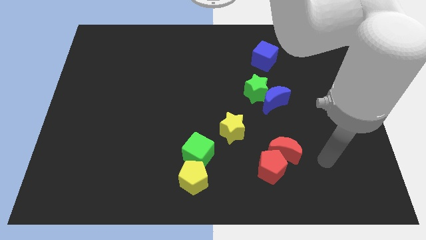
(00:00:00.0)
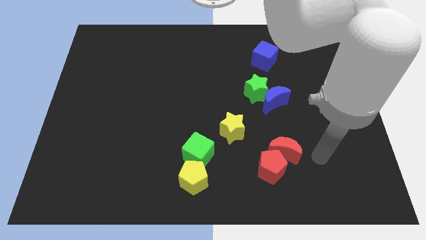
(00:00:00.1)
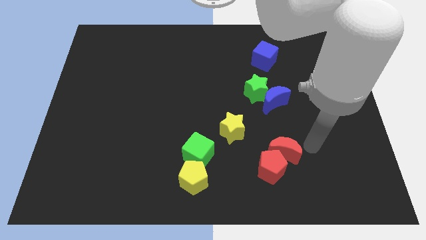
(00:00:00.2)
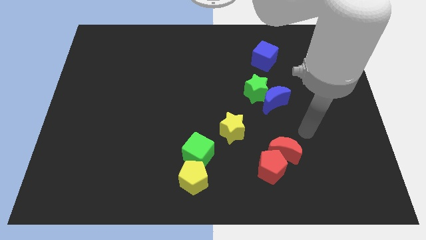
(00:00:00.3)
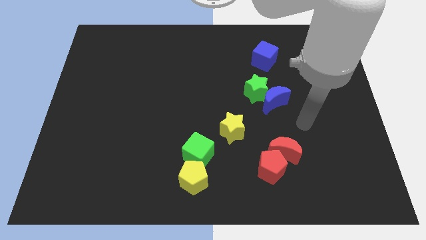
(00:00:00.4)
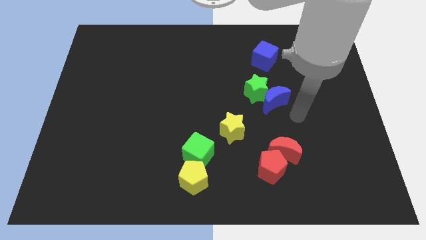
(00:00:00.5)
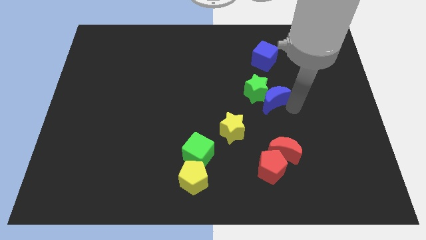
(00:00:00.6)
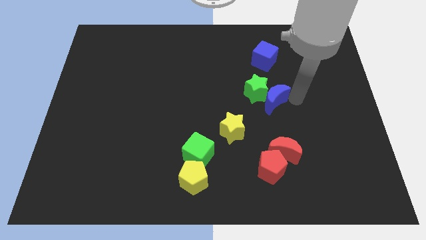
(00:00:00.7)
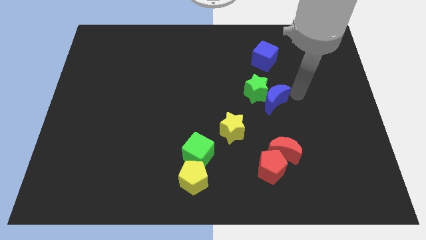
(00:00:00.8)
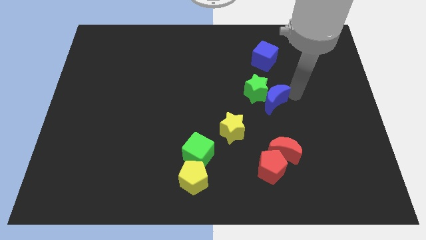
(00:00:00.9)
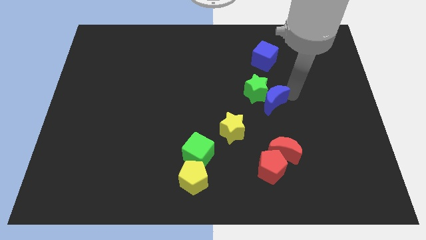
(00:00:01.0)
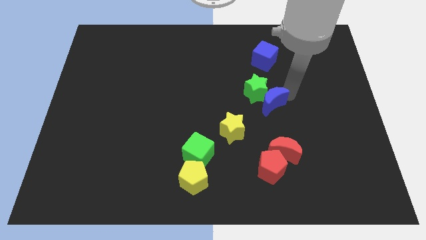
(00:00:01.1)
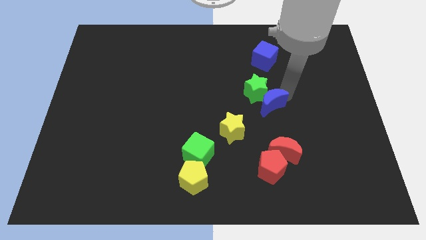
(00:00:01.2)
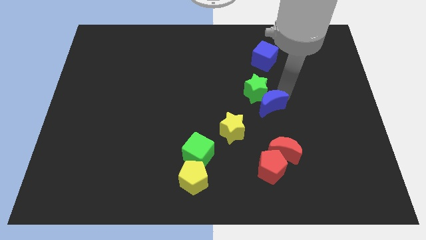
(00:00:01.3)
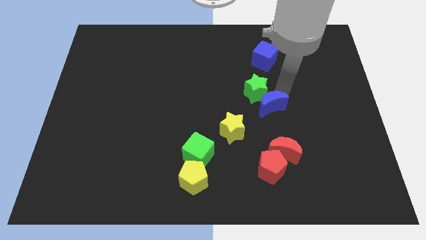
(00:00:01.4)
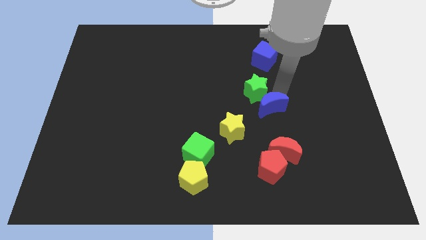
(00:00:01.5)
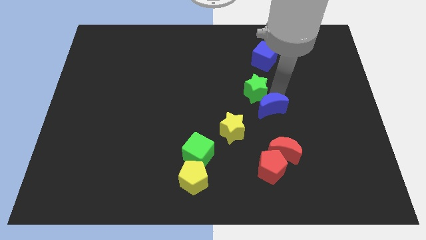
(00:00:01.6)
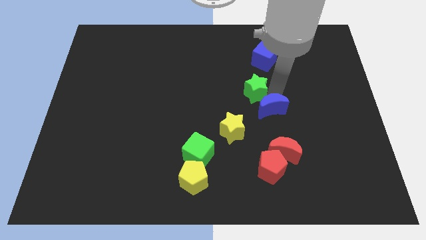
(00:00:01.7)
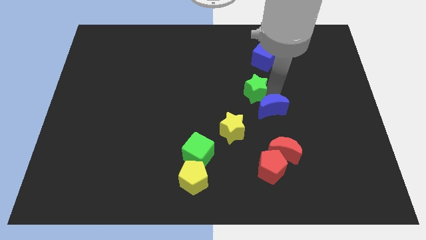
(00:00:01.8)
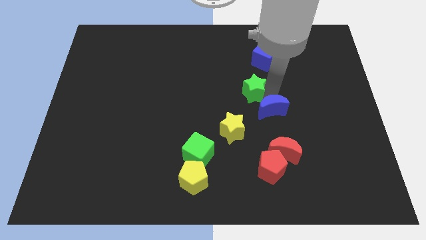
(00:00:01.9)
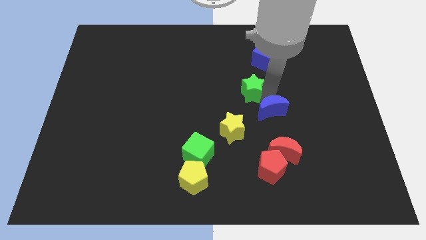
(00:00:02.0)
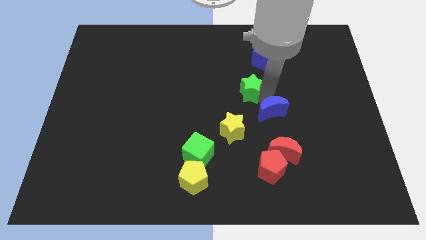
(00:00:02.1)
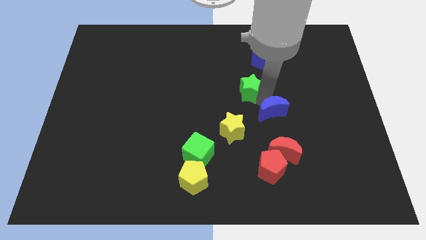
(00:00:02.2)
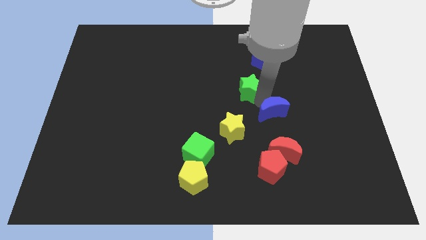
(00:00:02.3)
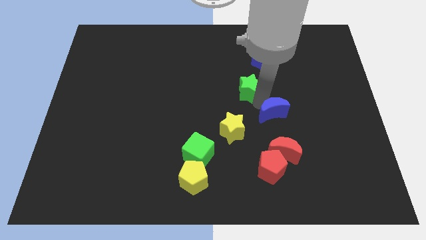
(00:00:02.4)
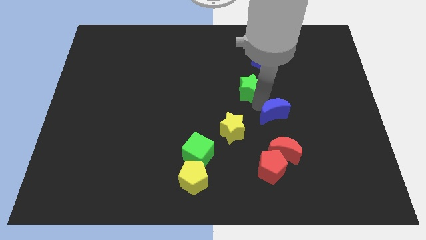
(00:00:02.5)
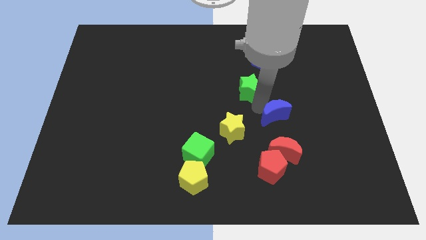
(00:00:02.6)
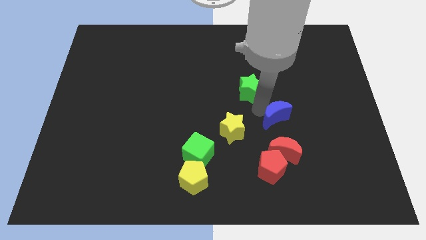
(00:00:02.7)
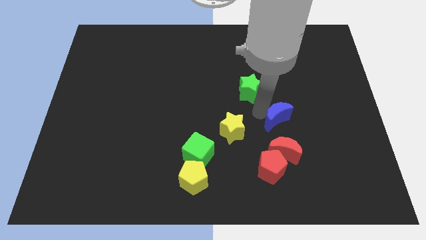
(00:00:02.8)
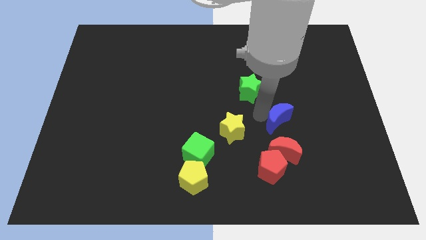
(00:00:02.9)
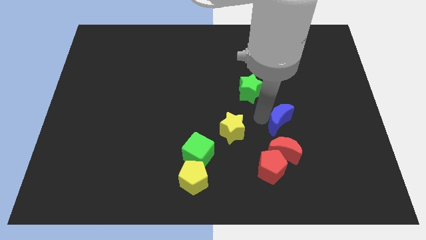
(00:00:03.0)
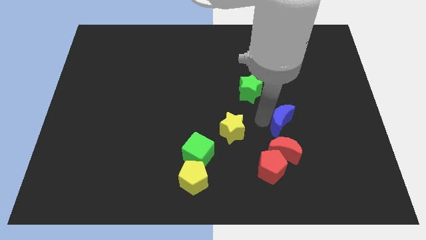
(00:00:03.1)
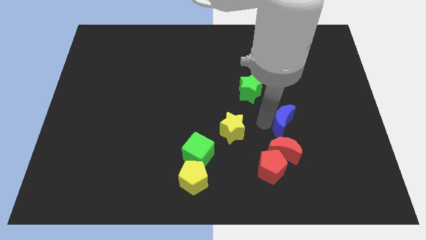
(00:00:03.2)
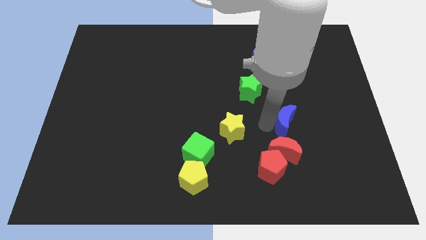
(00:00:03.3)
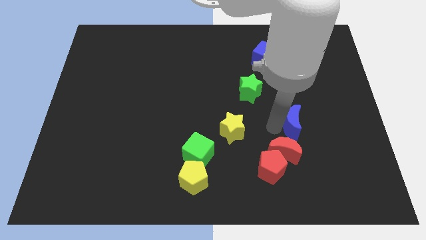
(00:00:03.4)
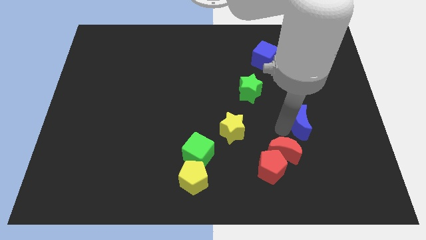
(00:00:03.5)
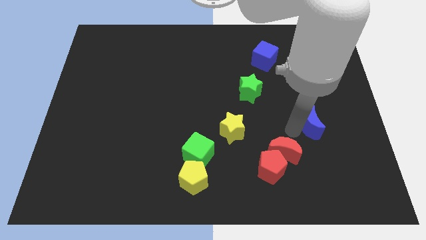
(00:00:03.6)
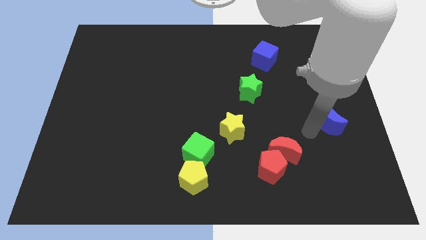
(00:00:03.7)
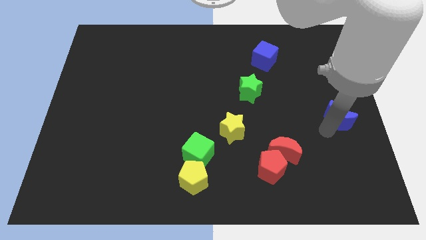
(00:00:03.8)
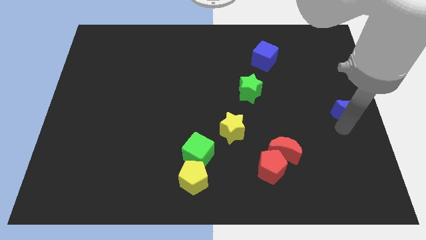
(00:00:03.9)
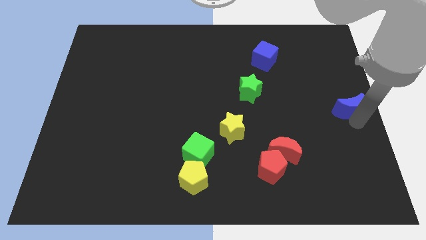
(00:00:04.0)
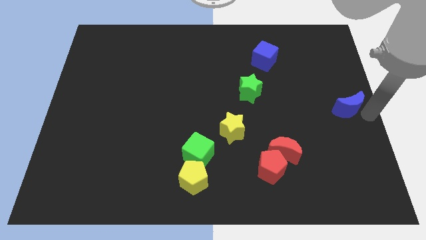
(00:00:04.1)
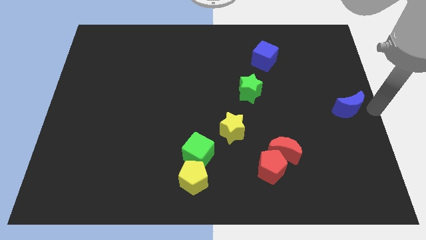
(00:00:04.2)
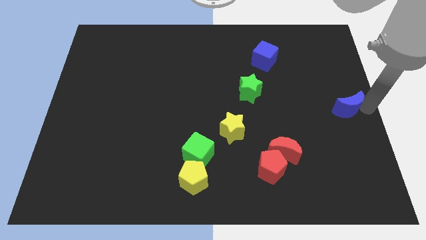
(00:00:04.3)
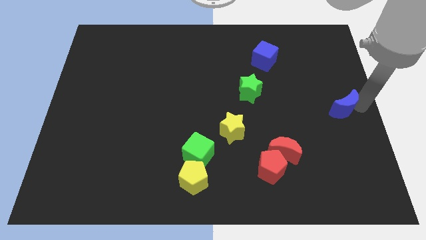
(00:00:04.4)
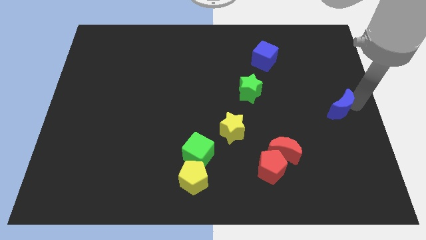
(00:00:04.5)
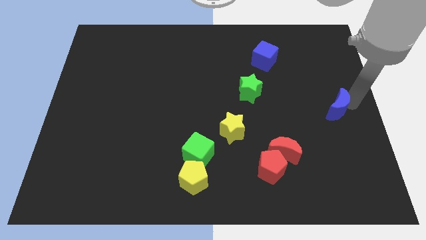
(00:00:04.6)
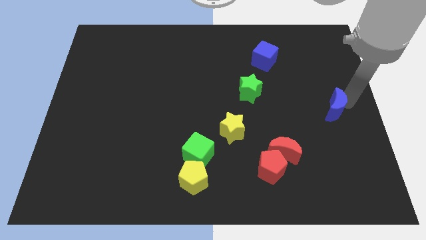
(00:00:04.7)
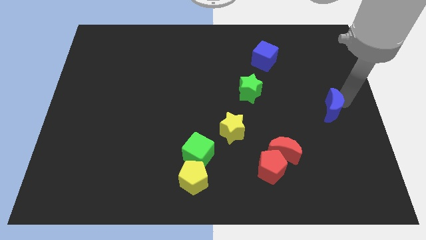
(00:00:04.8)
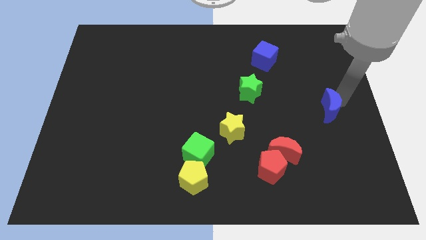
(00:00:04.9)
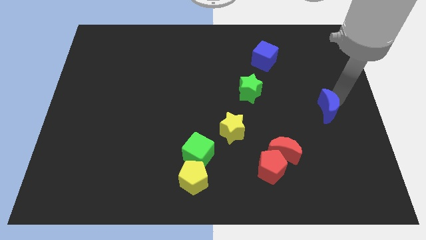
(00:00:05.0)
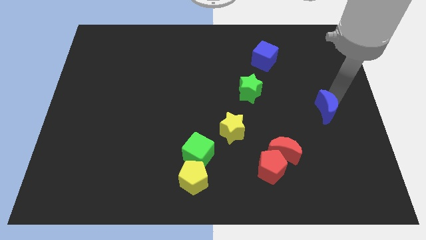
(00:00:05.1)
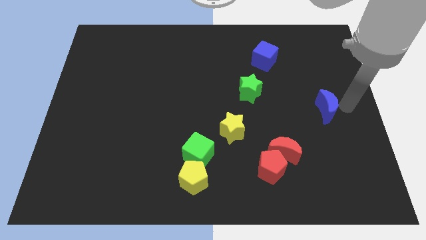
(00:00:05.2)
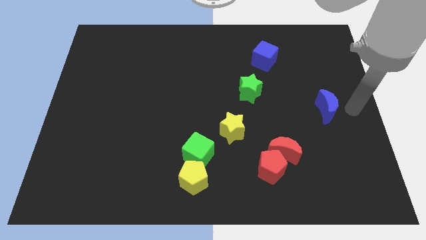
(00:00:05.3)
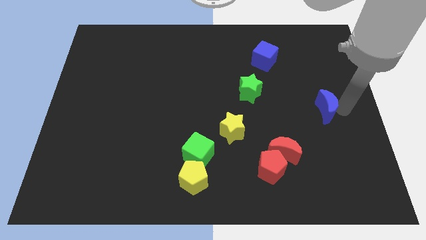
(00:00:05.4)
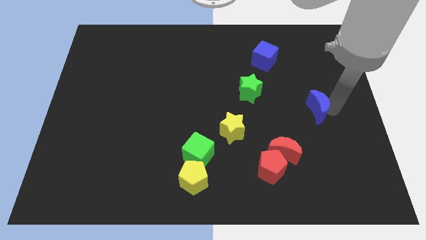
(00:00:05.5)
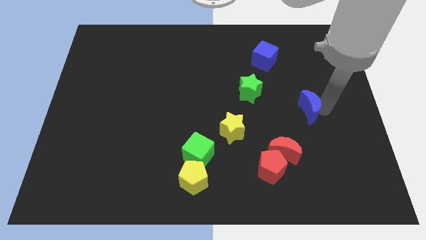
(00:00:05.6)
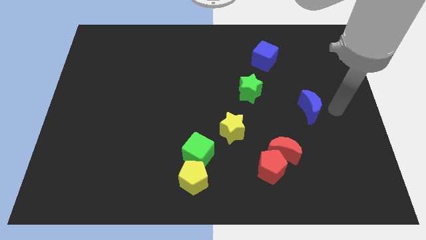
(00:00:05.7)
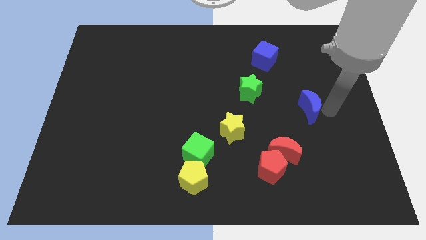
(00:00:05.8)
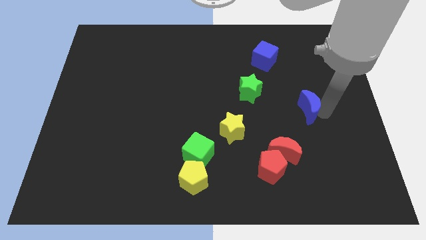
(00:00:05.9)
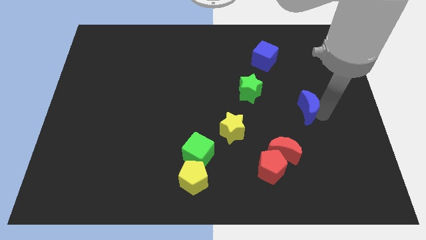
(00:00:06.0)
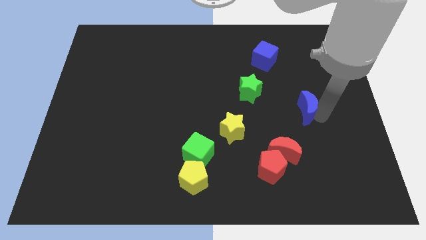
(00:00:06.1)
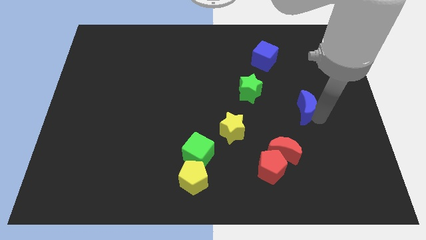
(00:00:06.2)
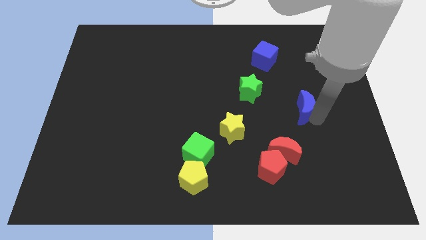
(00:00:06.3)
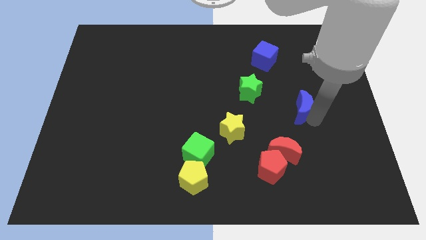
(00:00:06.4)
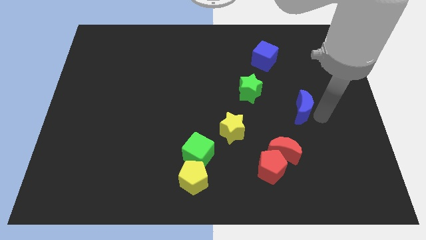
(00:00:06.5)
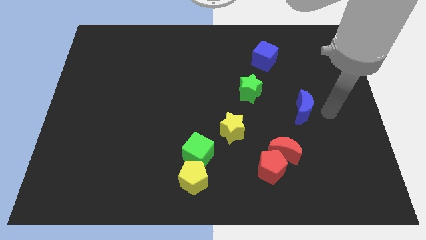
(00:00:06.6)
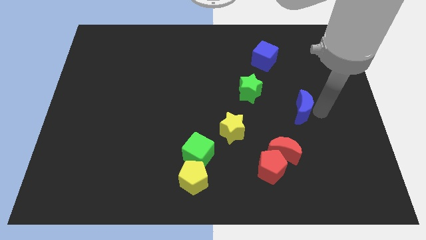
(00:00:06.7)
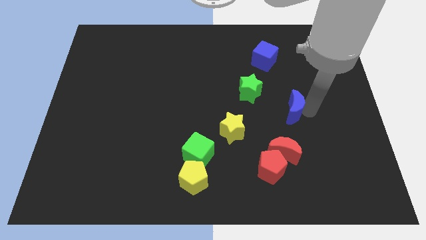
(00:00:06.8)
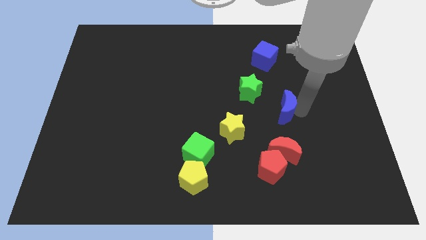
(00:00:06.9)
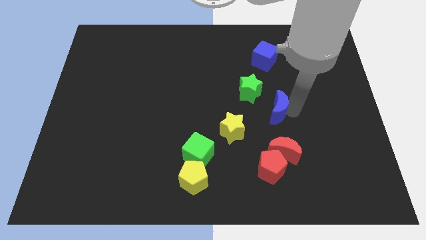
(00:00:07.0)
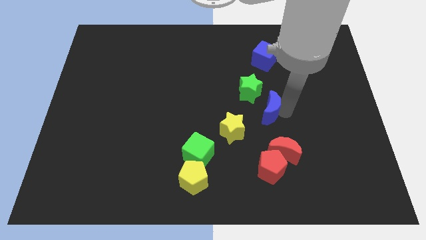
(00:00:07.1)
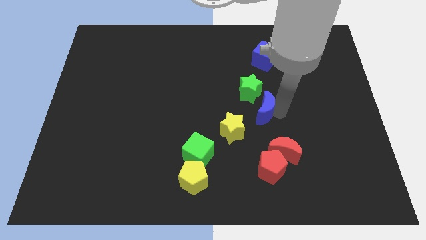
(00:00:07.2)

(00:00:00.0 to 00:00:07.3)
put the blue moon to the middle of the board
